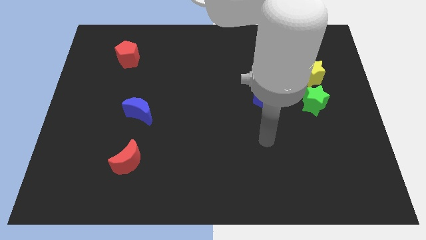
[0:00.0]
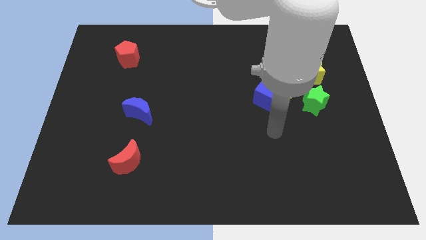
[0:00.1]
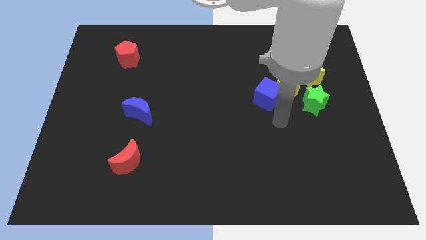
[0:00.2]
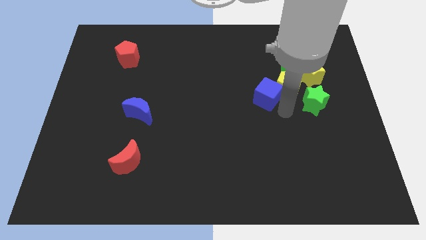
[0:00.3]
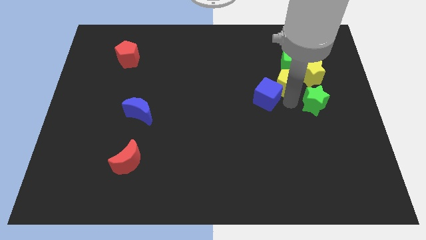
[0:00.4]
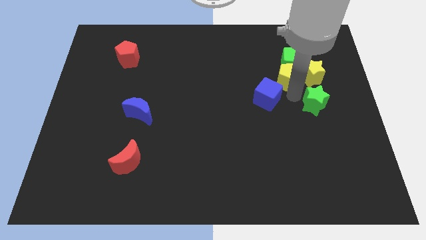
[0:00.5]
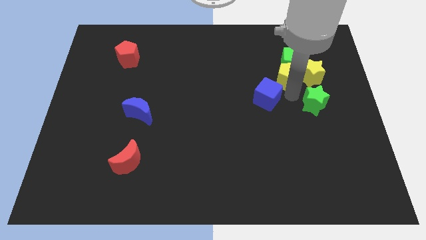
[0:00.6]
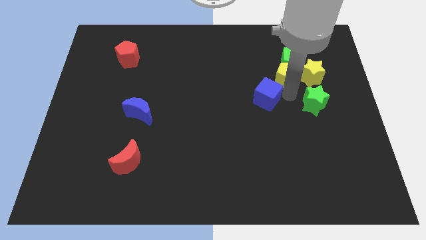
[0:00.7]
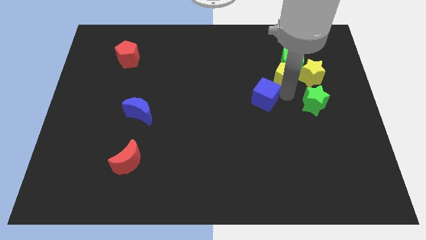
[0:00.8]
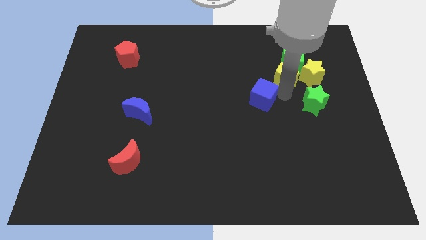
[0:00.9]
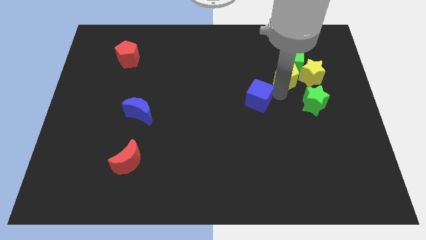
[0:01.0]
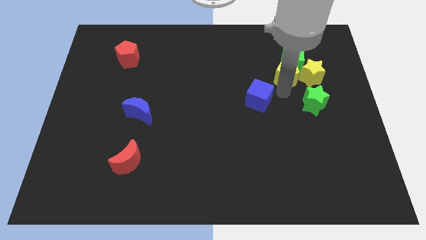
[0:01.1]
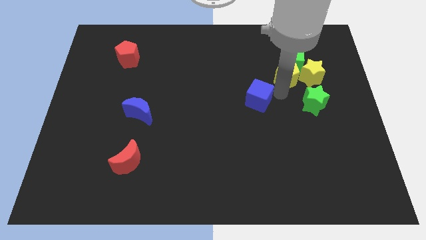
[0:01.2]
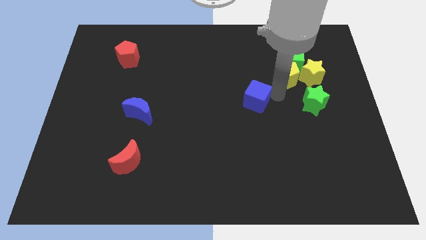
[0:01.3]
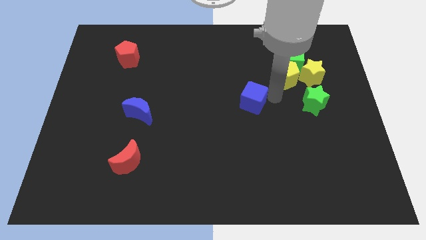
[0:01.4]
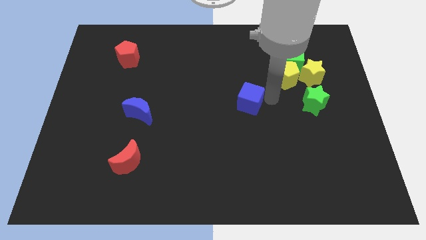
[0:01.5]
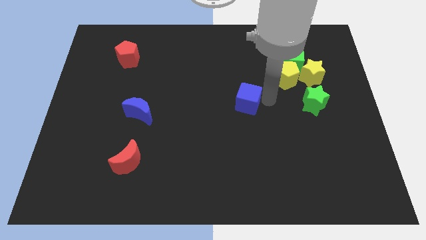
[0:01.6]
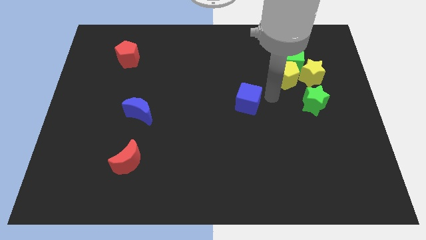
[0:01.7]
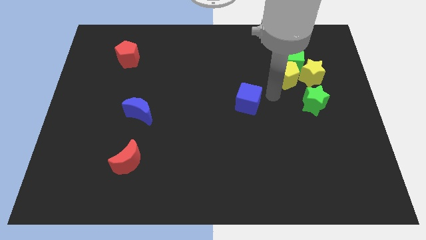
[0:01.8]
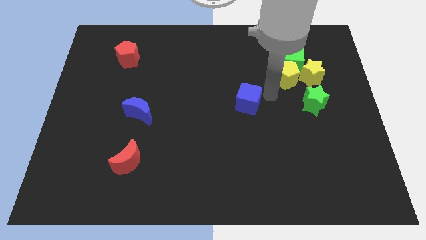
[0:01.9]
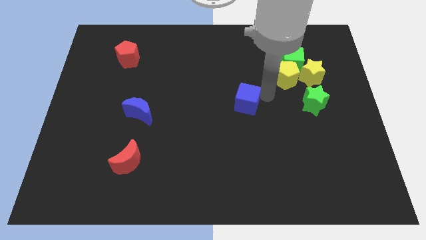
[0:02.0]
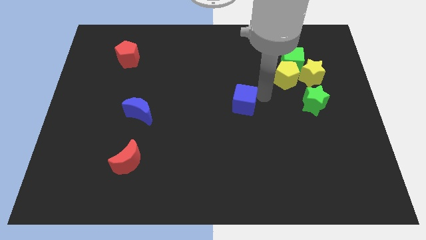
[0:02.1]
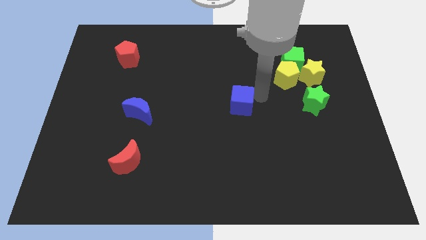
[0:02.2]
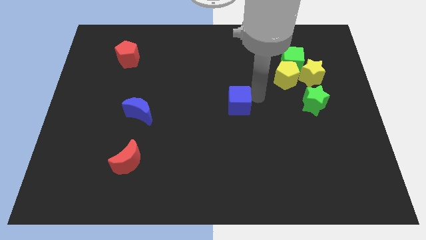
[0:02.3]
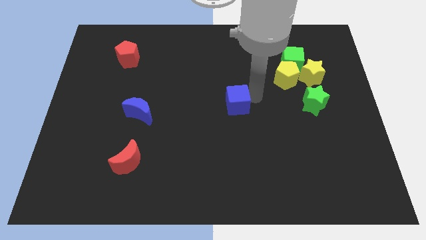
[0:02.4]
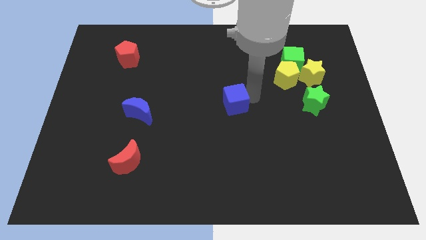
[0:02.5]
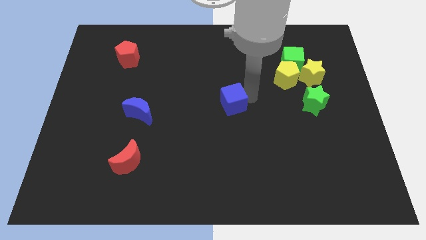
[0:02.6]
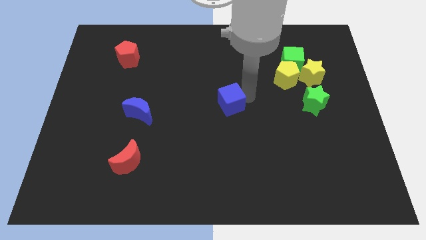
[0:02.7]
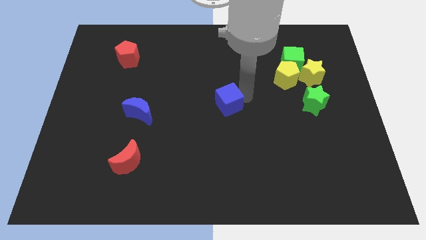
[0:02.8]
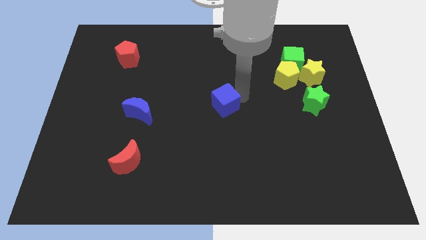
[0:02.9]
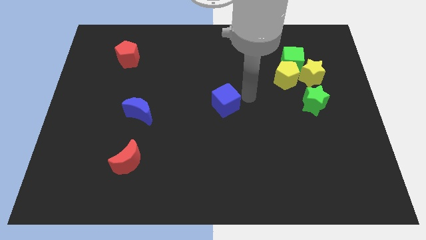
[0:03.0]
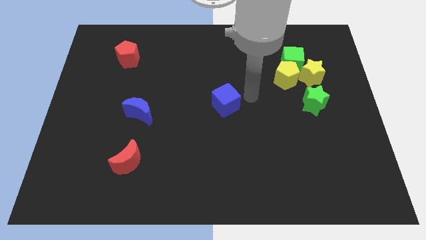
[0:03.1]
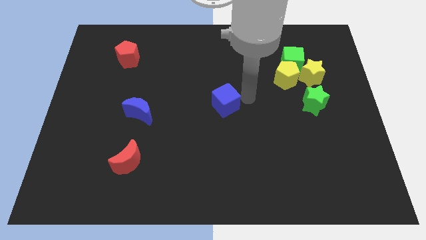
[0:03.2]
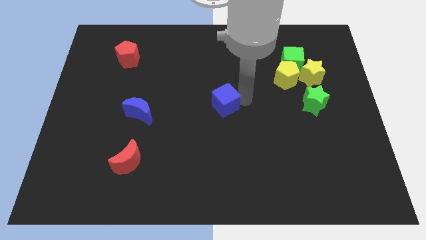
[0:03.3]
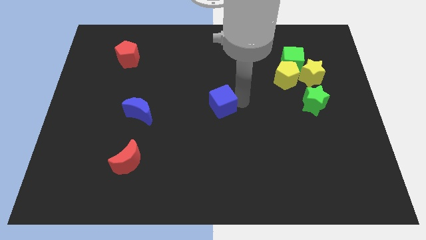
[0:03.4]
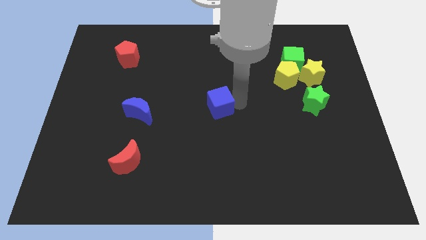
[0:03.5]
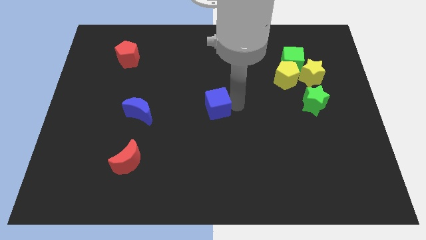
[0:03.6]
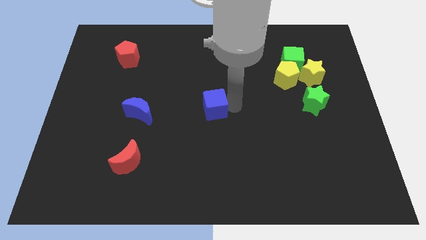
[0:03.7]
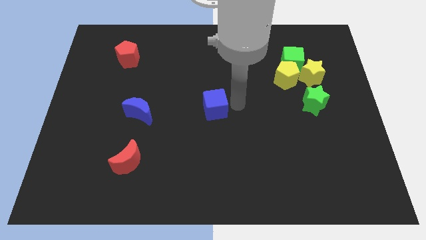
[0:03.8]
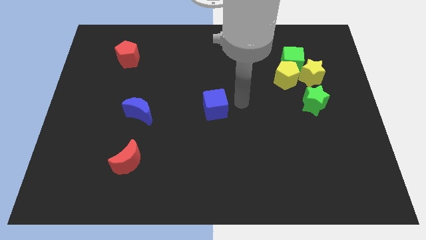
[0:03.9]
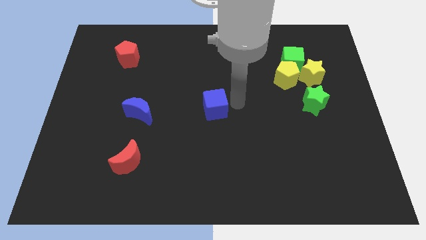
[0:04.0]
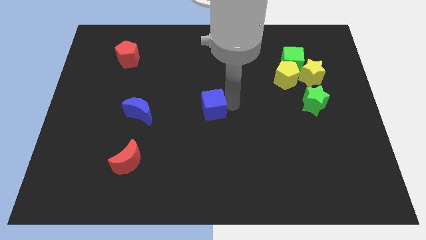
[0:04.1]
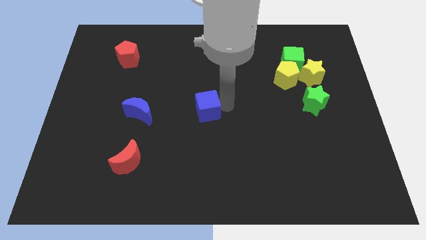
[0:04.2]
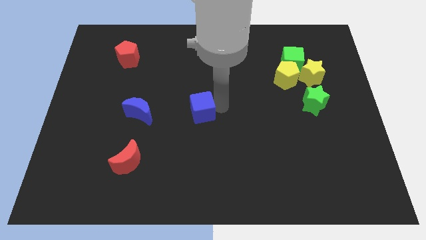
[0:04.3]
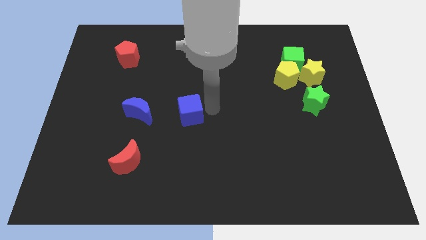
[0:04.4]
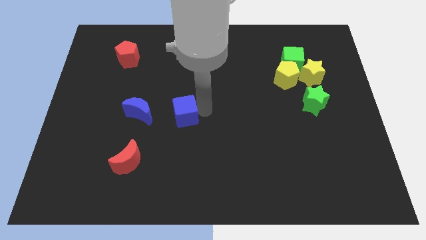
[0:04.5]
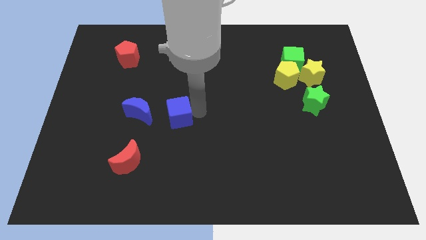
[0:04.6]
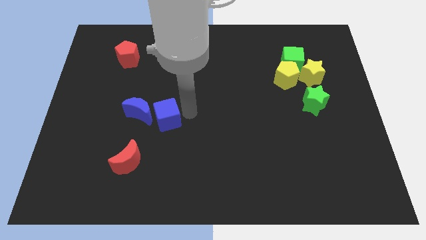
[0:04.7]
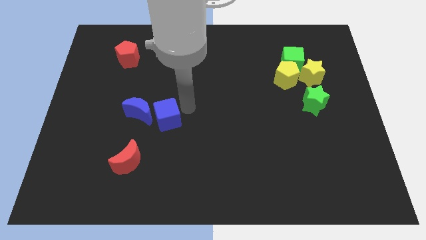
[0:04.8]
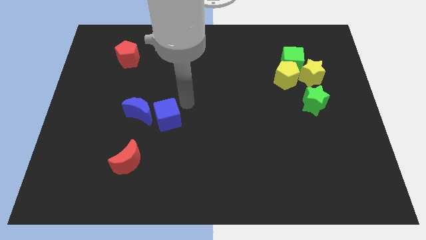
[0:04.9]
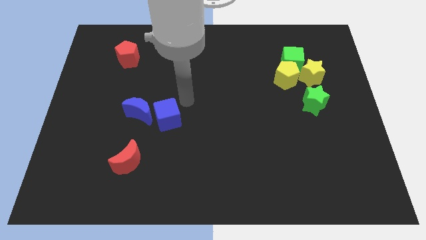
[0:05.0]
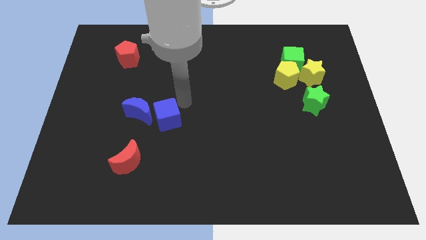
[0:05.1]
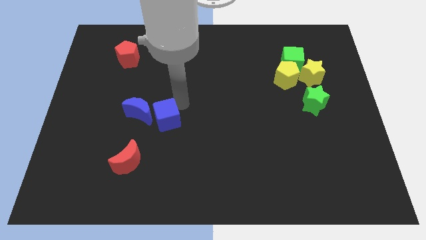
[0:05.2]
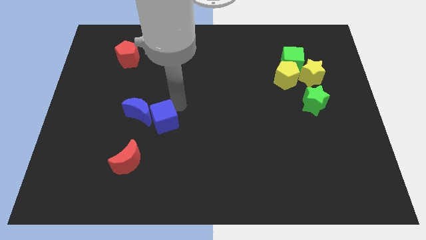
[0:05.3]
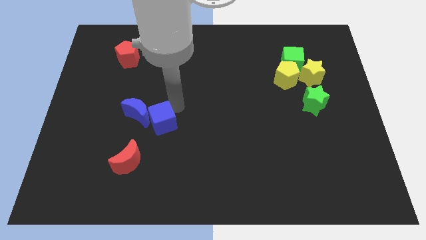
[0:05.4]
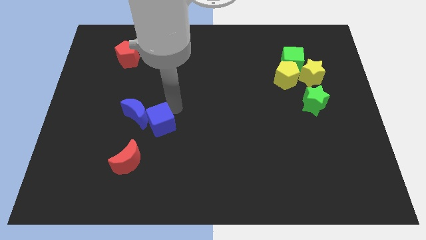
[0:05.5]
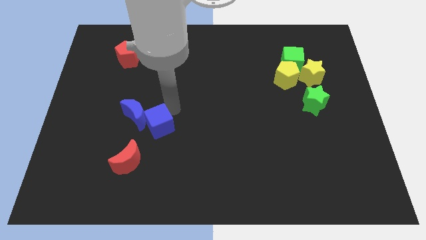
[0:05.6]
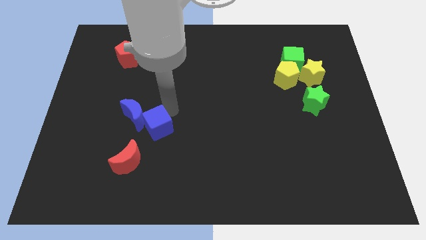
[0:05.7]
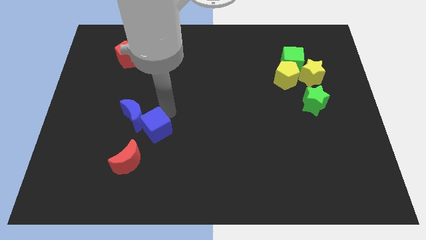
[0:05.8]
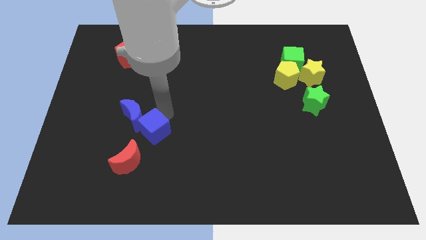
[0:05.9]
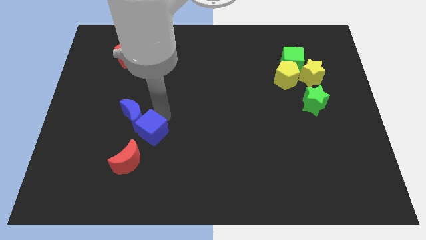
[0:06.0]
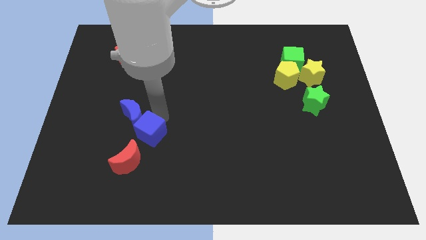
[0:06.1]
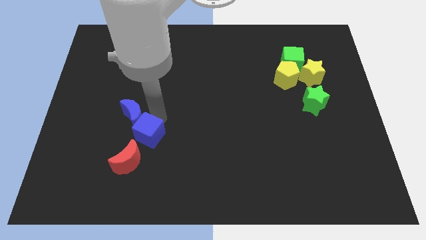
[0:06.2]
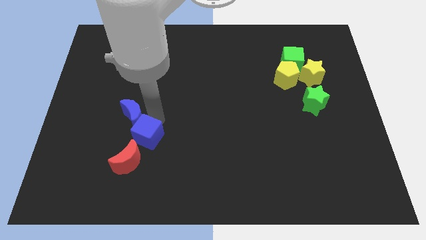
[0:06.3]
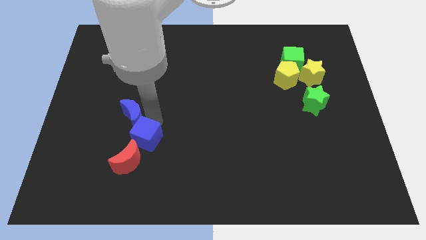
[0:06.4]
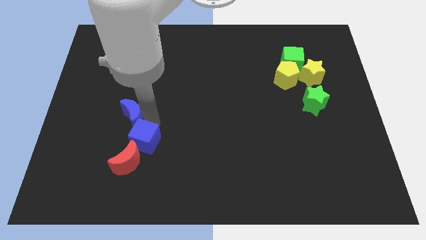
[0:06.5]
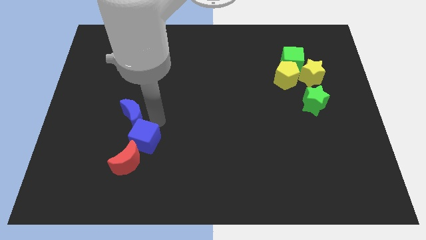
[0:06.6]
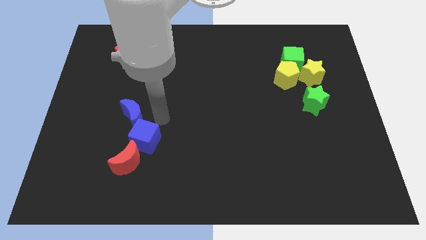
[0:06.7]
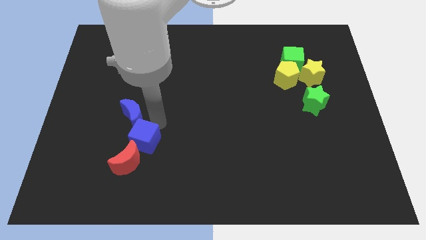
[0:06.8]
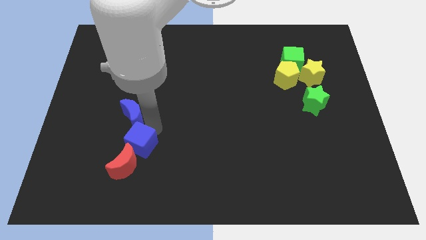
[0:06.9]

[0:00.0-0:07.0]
put the blue cube towards the red moon
